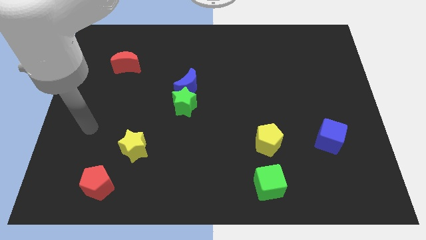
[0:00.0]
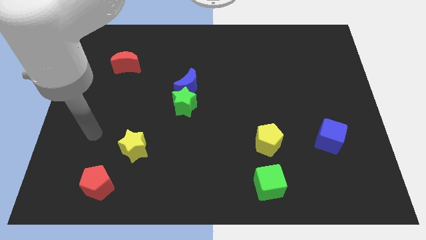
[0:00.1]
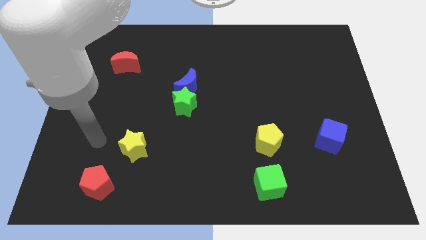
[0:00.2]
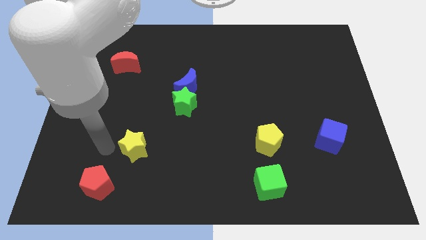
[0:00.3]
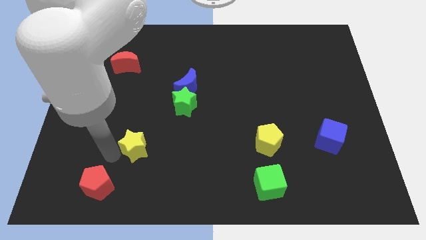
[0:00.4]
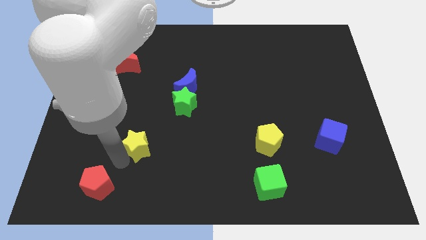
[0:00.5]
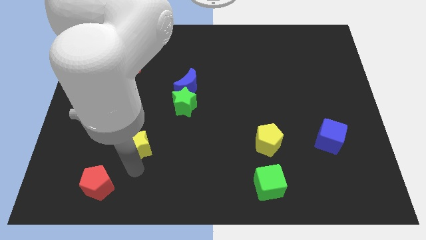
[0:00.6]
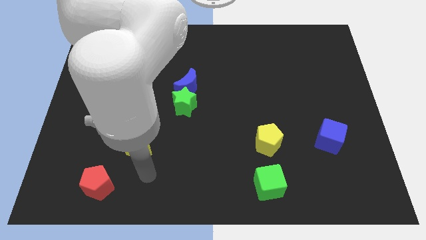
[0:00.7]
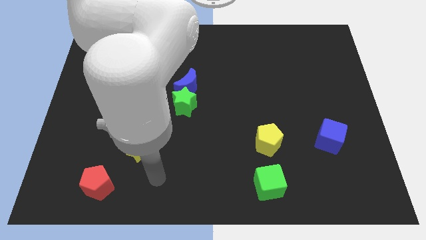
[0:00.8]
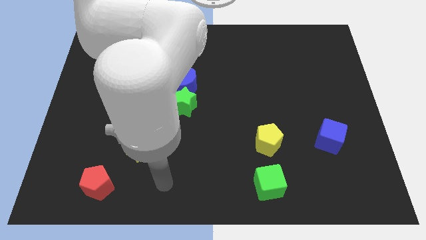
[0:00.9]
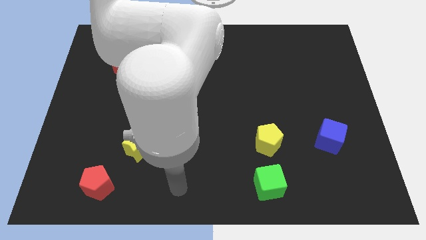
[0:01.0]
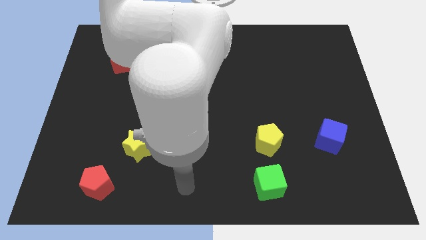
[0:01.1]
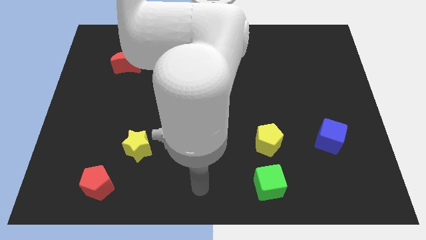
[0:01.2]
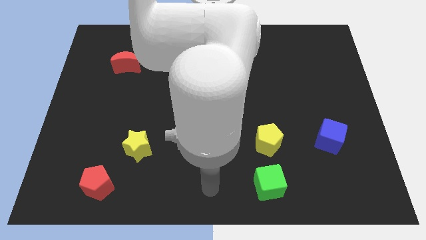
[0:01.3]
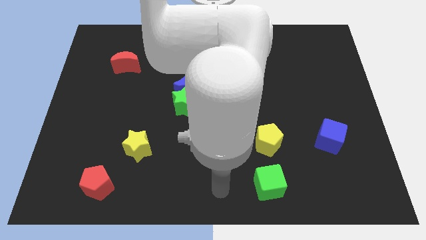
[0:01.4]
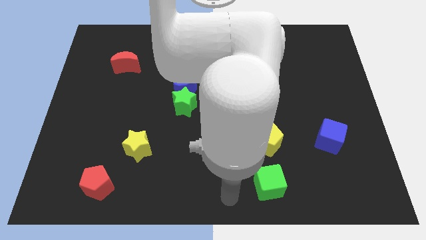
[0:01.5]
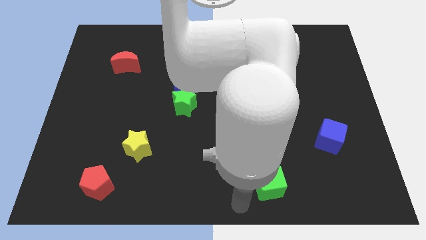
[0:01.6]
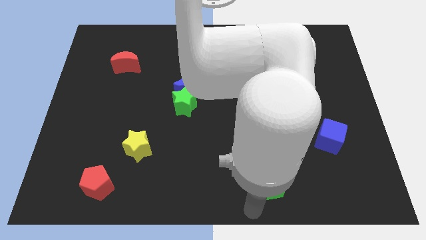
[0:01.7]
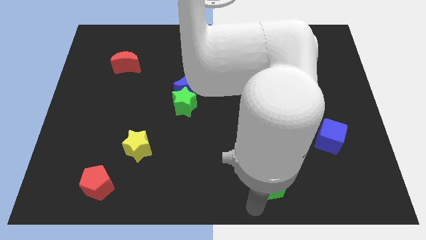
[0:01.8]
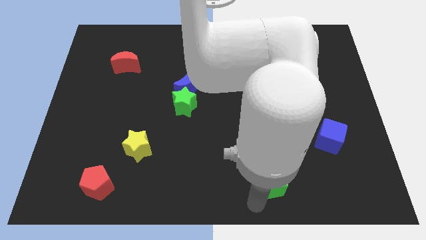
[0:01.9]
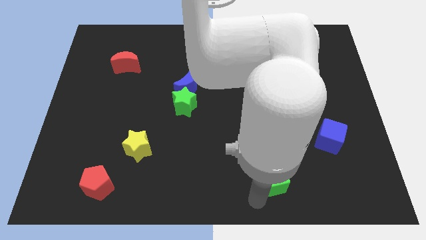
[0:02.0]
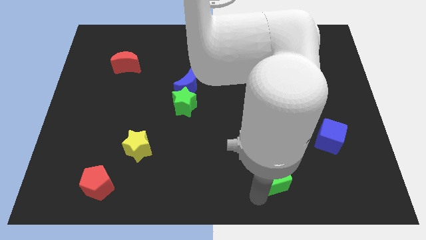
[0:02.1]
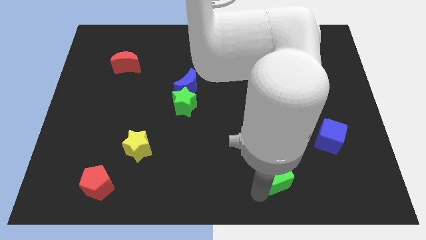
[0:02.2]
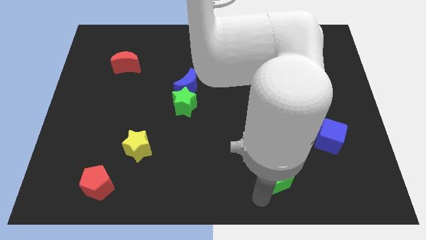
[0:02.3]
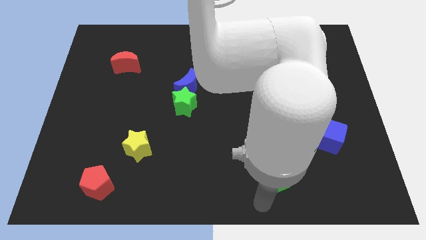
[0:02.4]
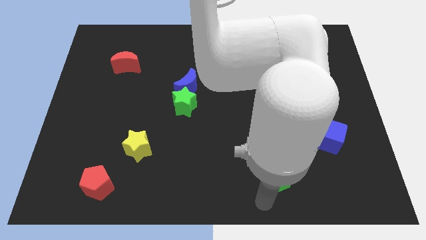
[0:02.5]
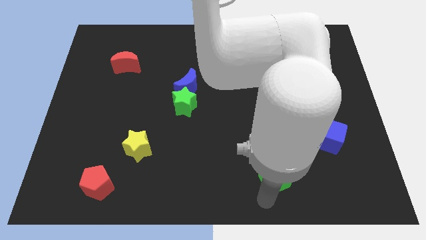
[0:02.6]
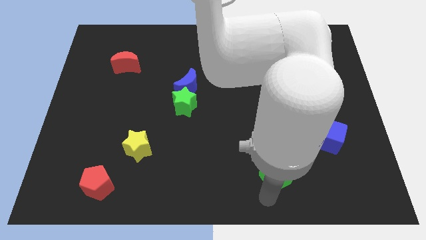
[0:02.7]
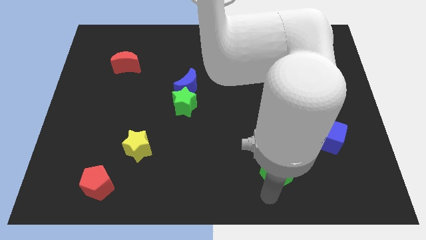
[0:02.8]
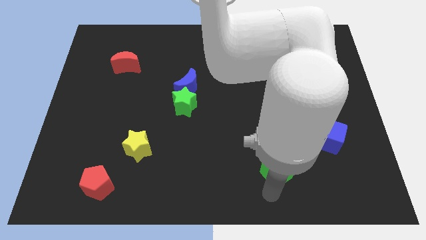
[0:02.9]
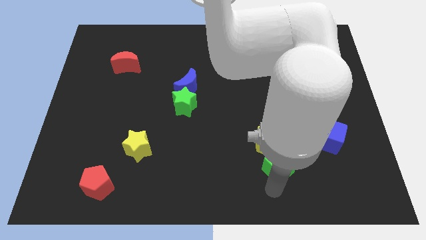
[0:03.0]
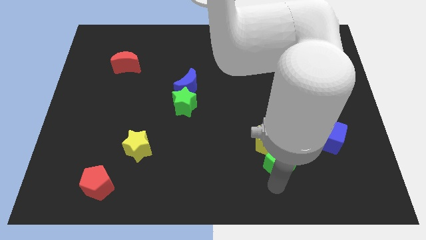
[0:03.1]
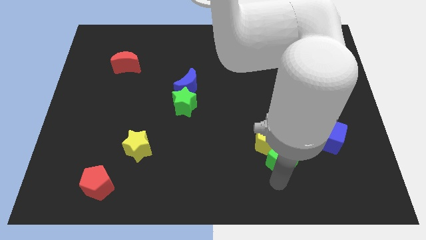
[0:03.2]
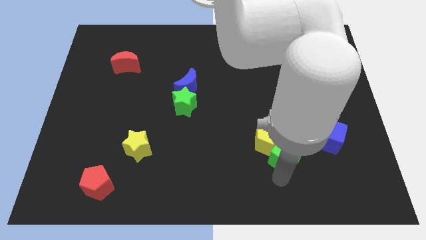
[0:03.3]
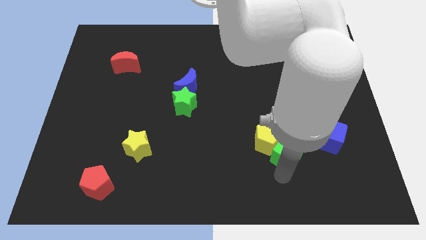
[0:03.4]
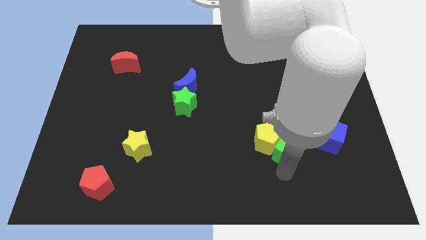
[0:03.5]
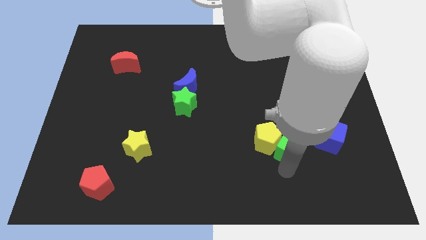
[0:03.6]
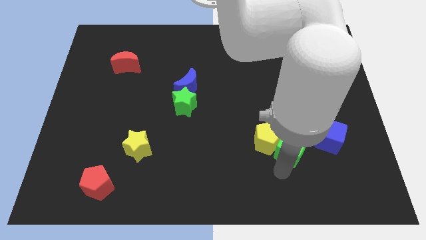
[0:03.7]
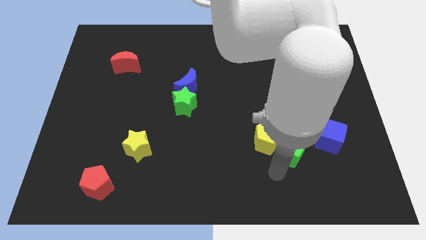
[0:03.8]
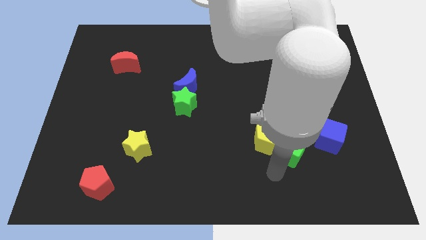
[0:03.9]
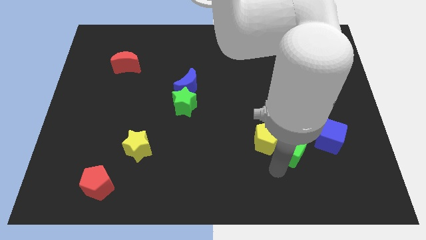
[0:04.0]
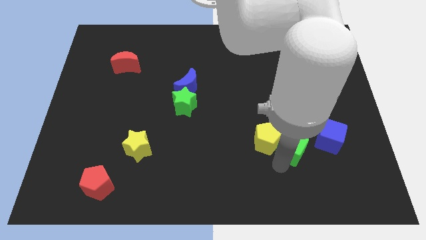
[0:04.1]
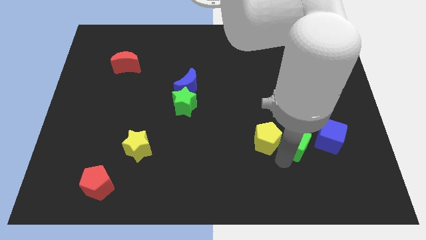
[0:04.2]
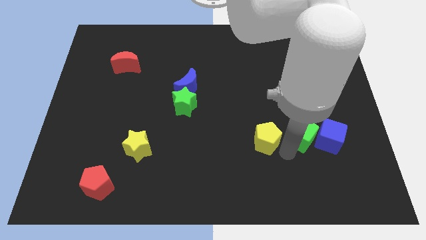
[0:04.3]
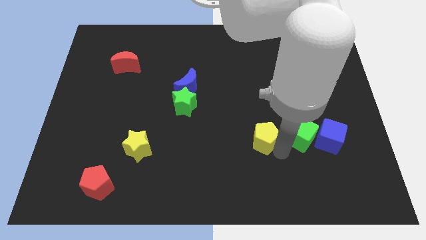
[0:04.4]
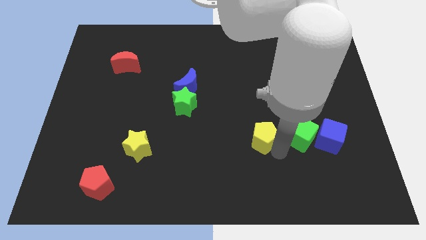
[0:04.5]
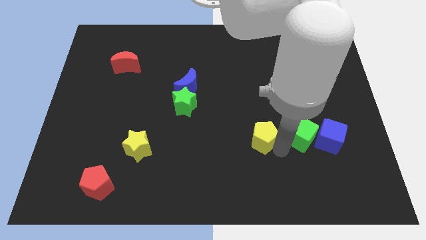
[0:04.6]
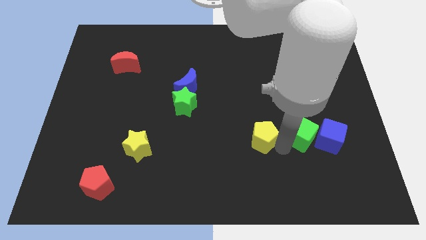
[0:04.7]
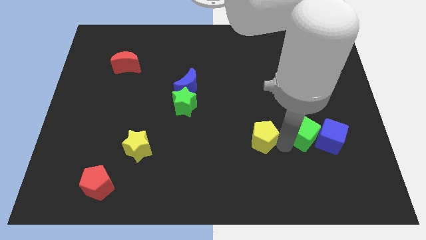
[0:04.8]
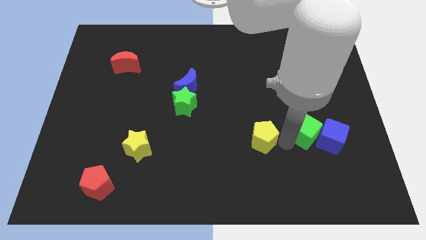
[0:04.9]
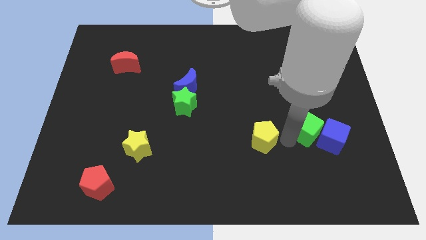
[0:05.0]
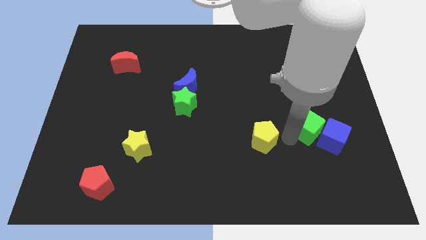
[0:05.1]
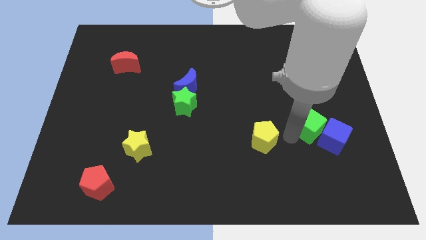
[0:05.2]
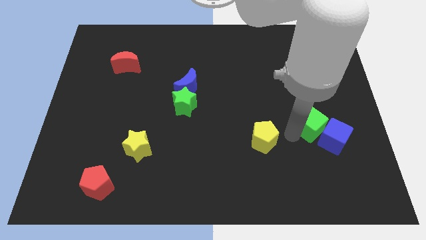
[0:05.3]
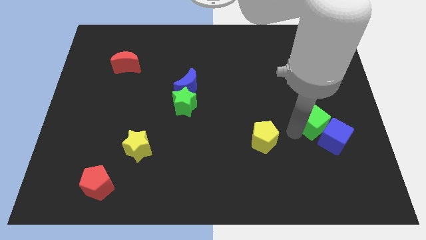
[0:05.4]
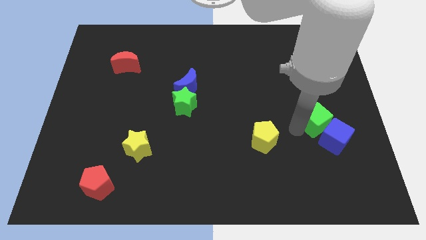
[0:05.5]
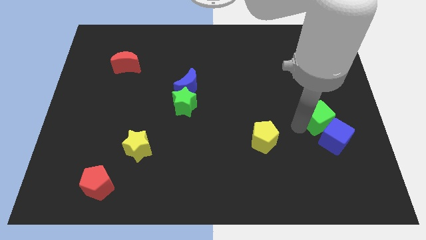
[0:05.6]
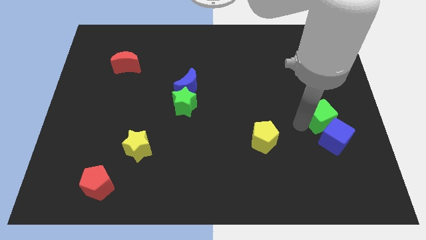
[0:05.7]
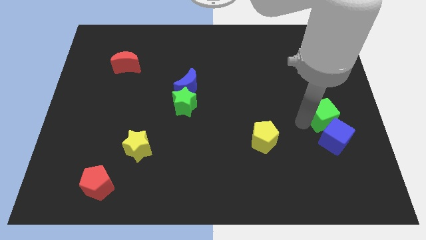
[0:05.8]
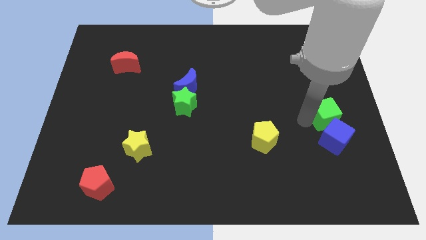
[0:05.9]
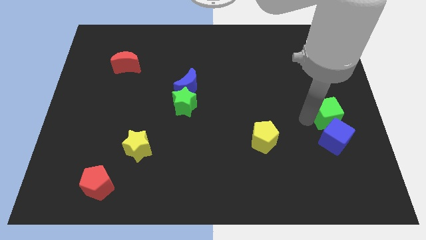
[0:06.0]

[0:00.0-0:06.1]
push the green cube to the center right
